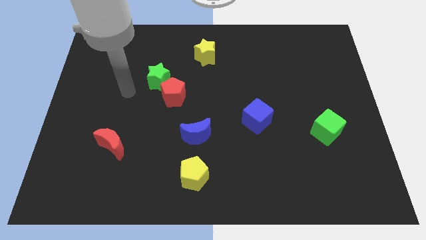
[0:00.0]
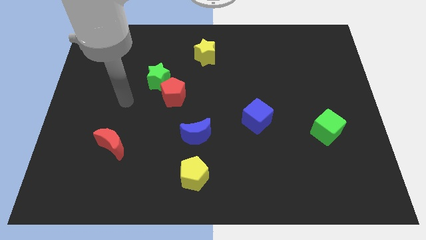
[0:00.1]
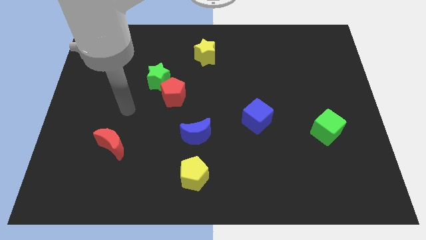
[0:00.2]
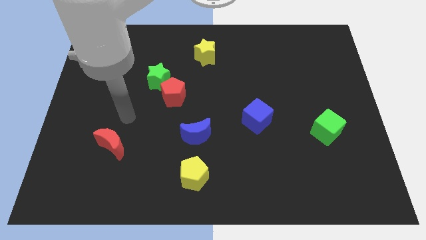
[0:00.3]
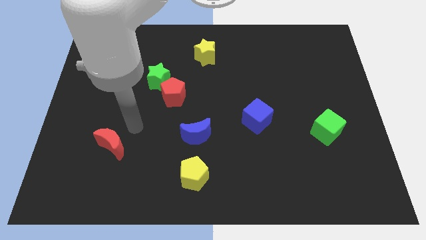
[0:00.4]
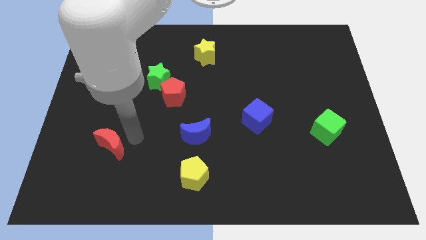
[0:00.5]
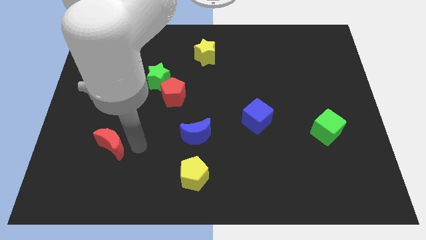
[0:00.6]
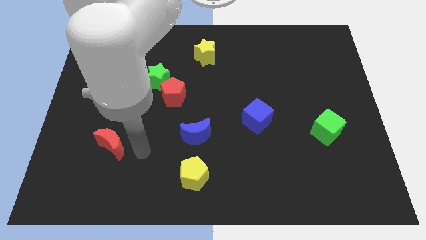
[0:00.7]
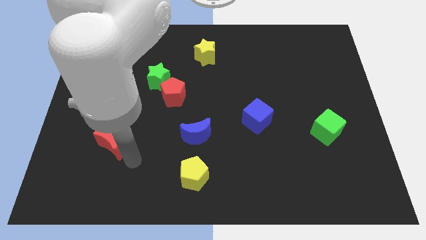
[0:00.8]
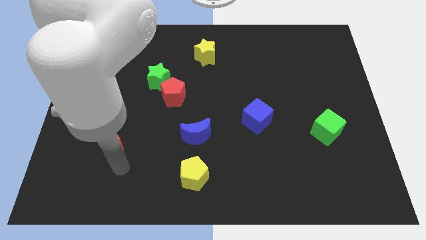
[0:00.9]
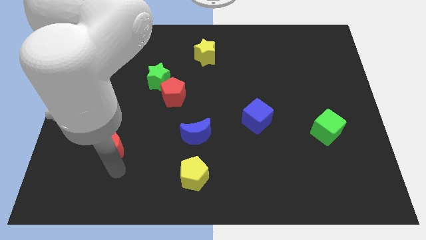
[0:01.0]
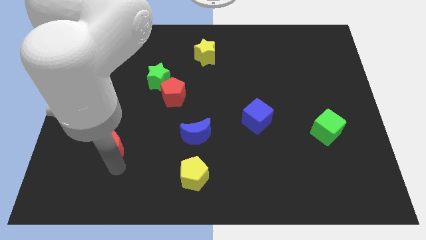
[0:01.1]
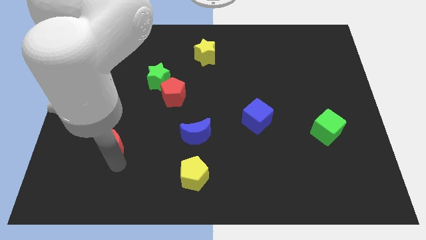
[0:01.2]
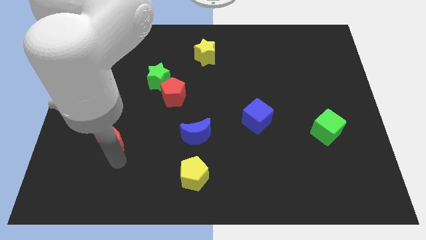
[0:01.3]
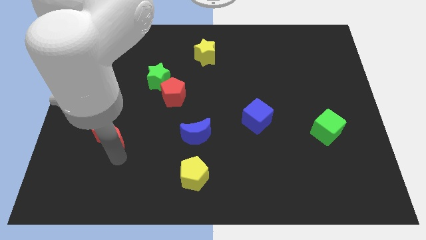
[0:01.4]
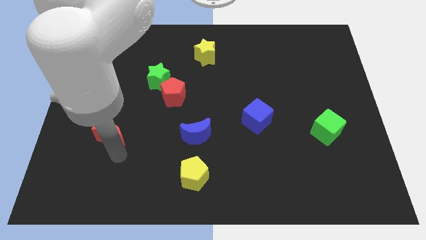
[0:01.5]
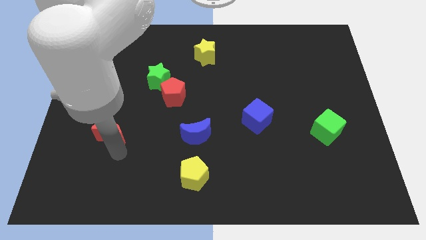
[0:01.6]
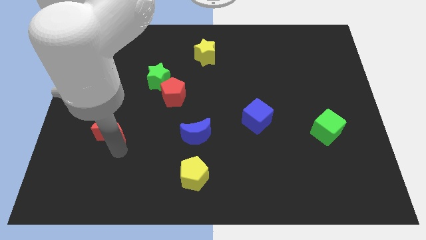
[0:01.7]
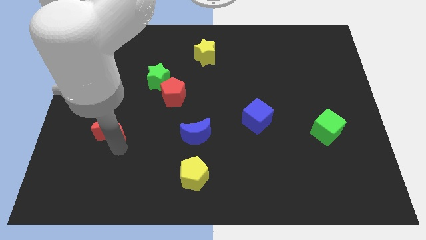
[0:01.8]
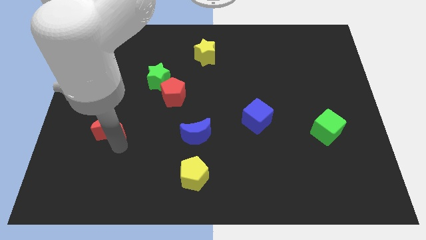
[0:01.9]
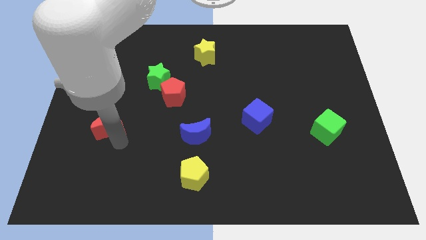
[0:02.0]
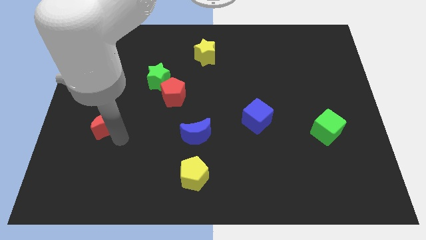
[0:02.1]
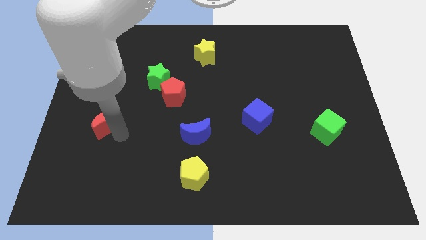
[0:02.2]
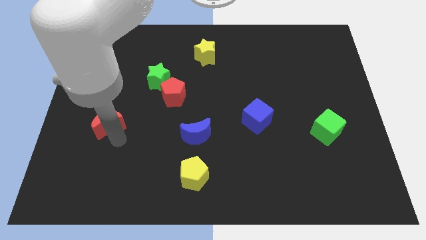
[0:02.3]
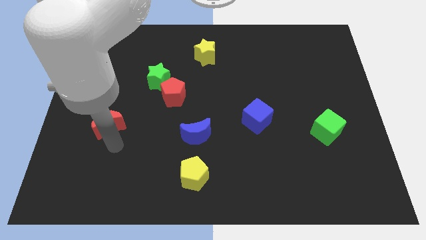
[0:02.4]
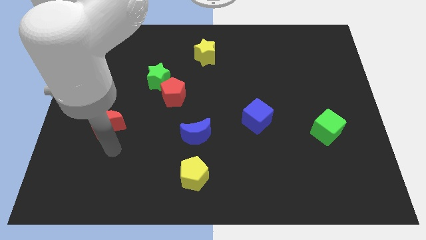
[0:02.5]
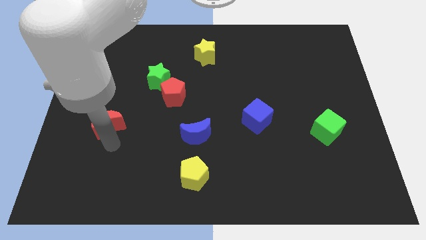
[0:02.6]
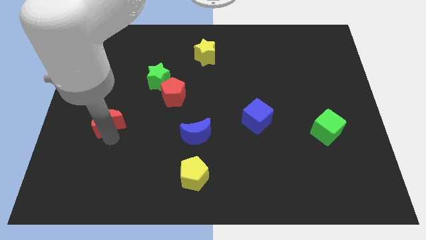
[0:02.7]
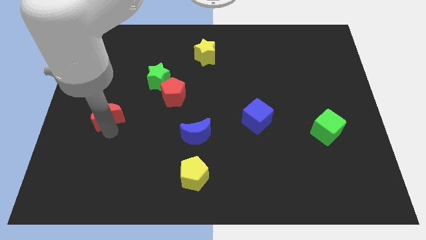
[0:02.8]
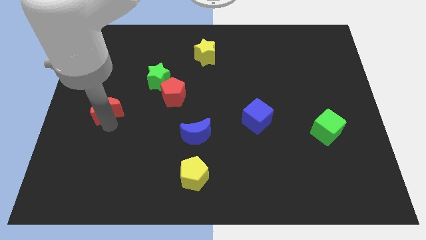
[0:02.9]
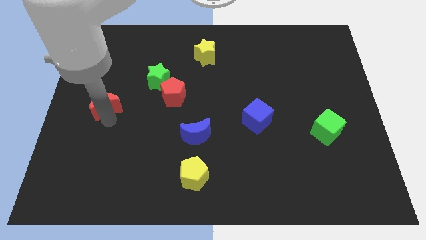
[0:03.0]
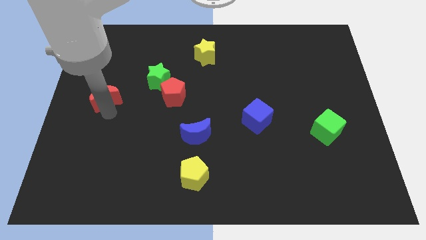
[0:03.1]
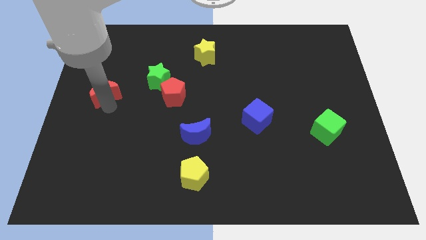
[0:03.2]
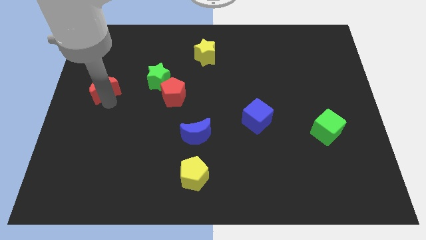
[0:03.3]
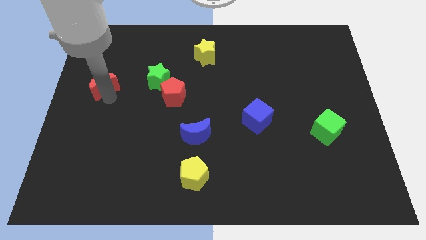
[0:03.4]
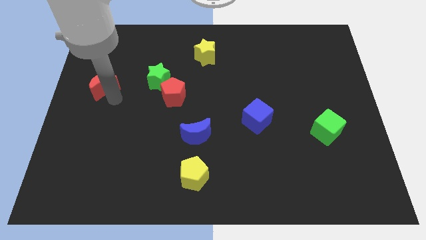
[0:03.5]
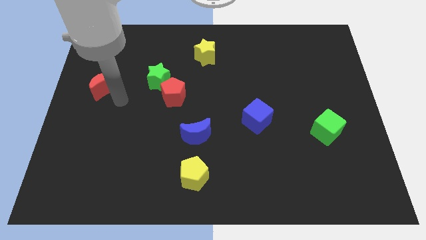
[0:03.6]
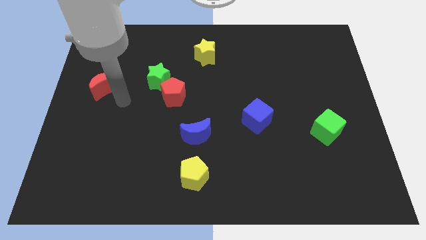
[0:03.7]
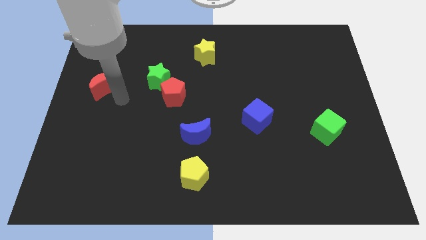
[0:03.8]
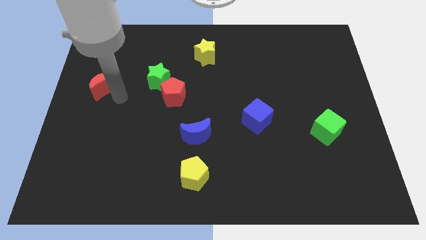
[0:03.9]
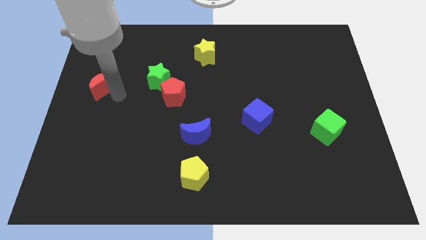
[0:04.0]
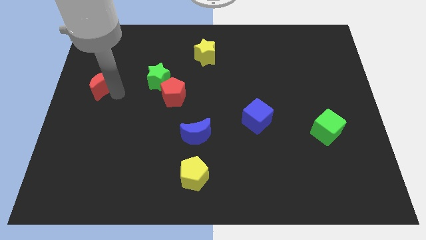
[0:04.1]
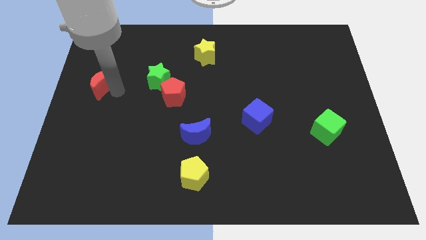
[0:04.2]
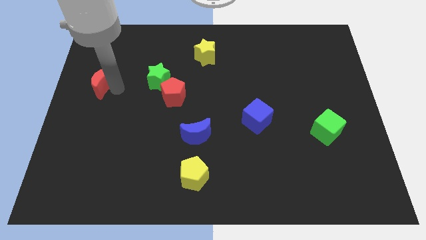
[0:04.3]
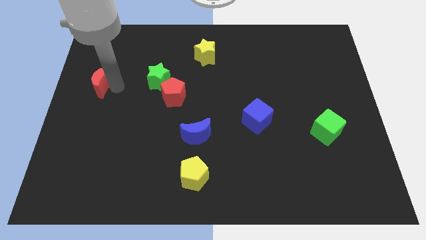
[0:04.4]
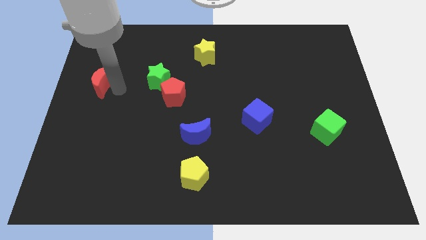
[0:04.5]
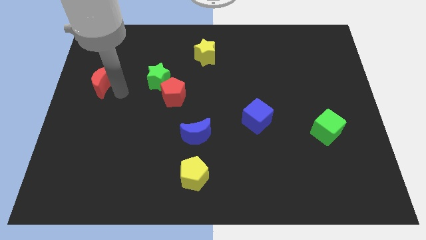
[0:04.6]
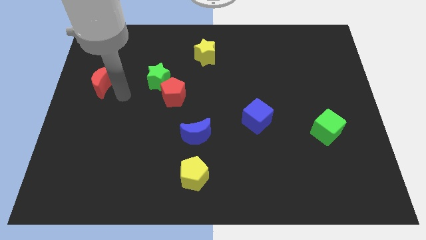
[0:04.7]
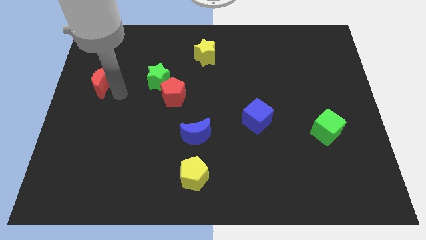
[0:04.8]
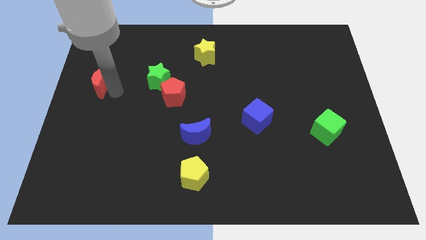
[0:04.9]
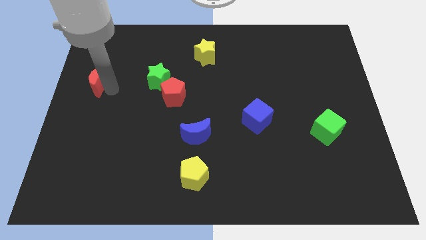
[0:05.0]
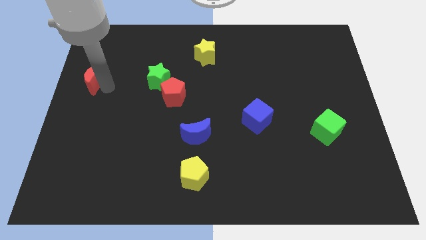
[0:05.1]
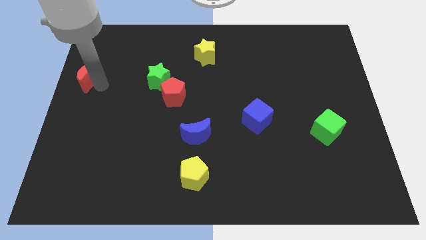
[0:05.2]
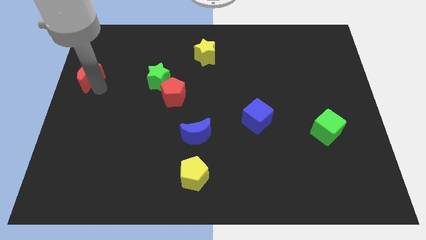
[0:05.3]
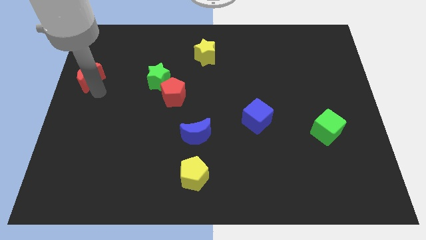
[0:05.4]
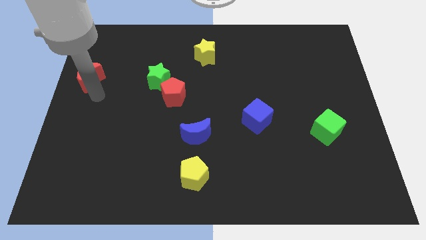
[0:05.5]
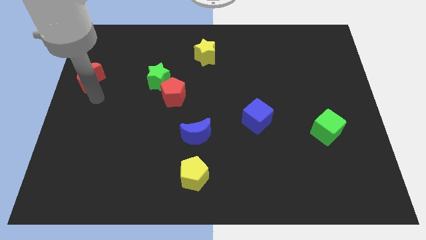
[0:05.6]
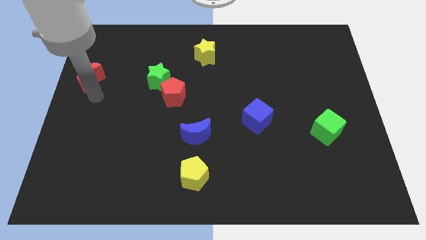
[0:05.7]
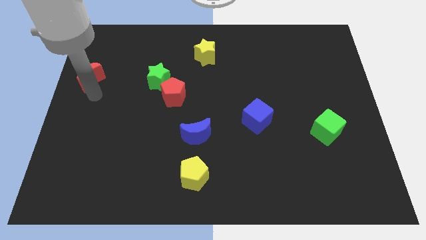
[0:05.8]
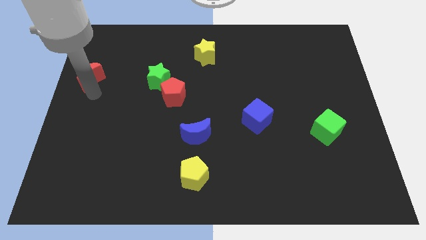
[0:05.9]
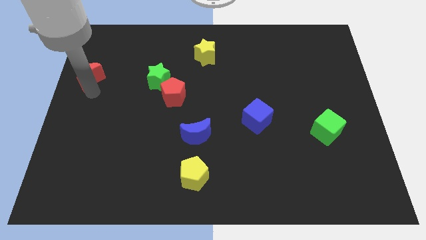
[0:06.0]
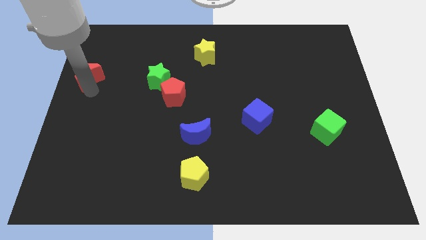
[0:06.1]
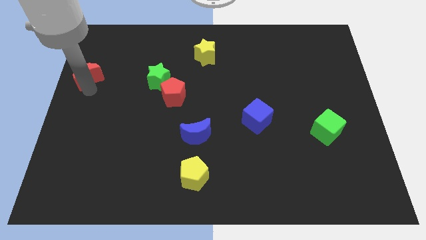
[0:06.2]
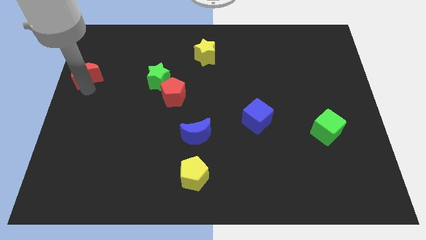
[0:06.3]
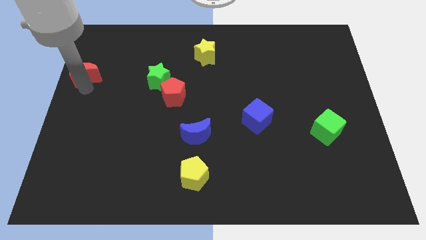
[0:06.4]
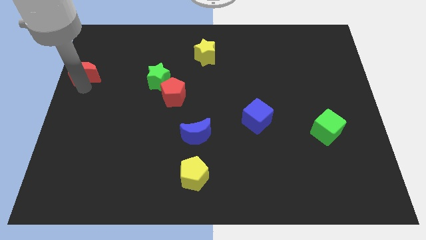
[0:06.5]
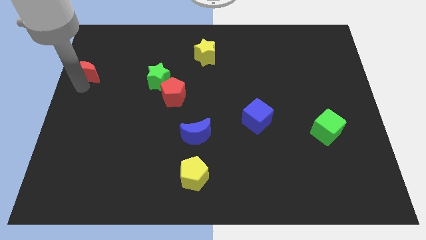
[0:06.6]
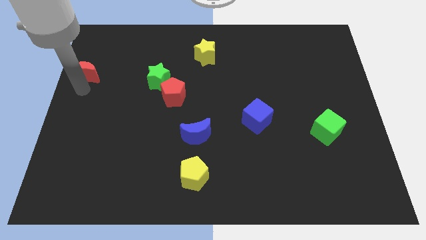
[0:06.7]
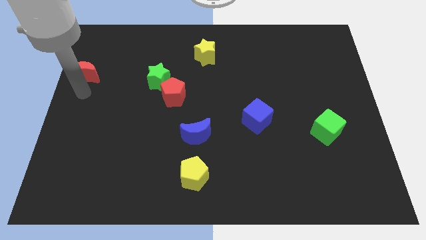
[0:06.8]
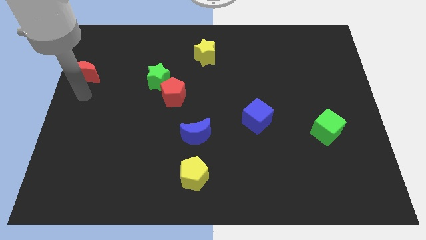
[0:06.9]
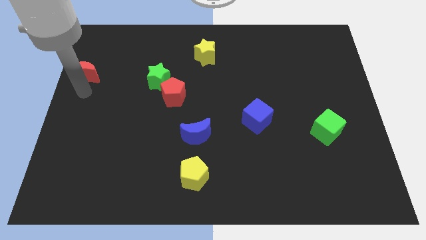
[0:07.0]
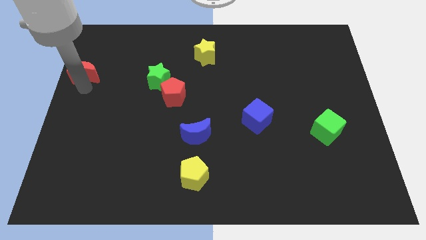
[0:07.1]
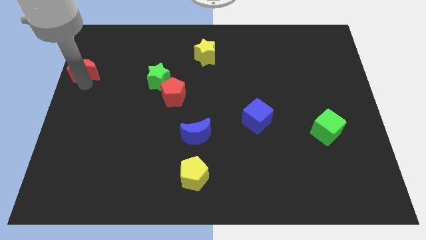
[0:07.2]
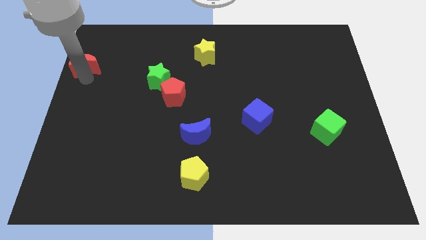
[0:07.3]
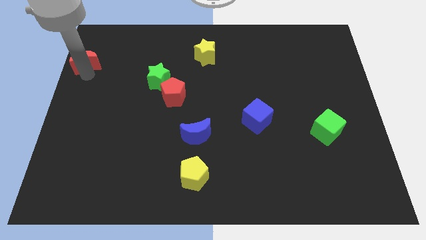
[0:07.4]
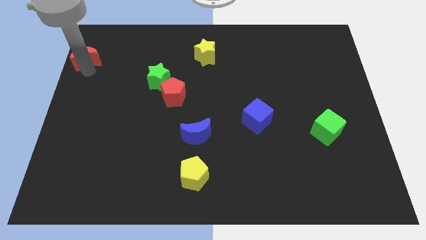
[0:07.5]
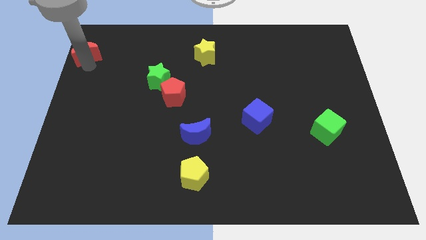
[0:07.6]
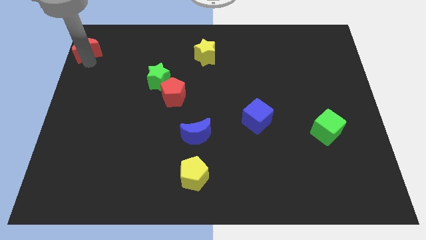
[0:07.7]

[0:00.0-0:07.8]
slide the red moon to the upper left corner
